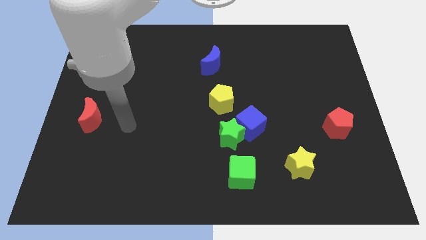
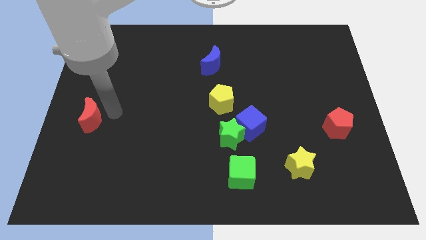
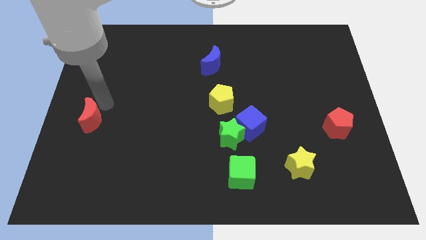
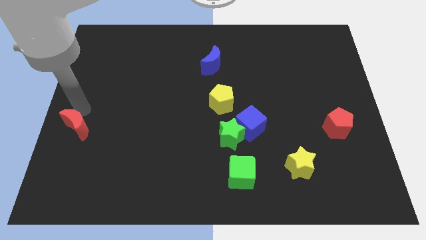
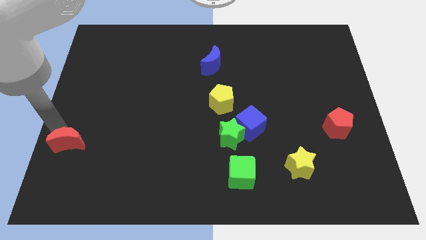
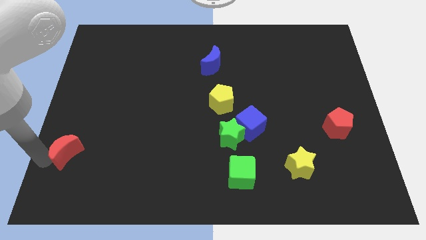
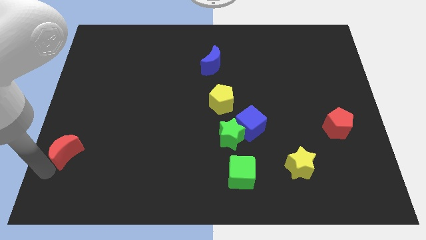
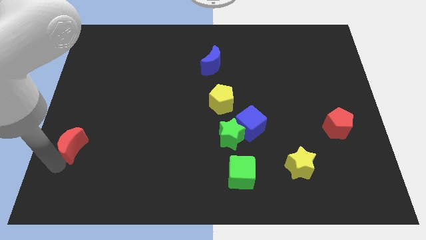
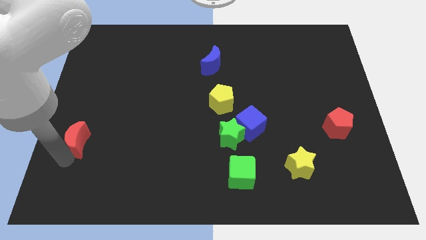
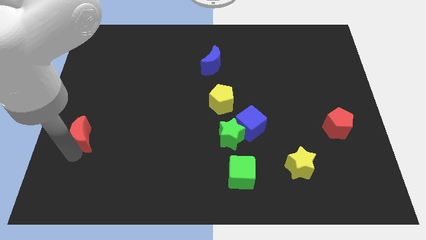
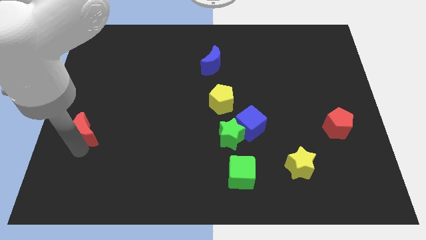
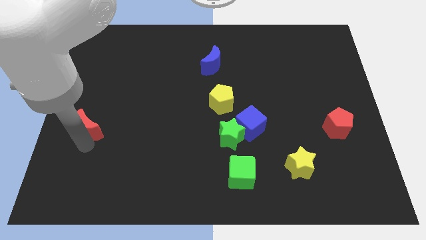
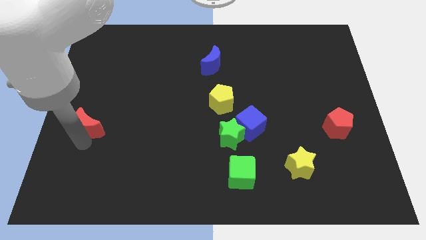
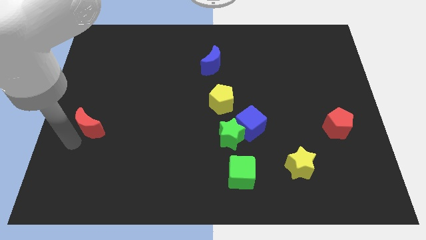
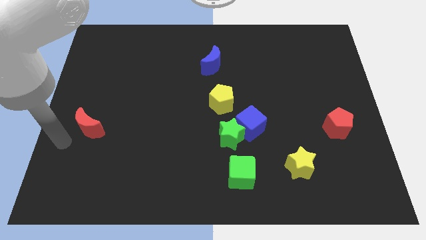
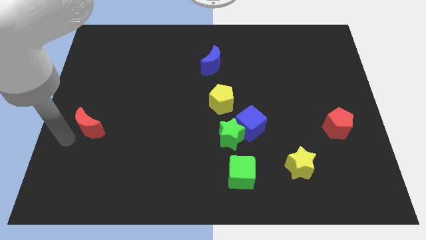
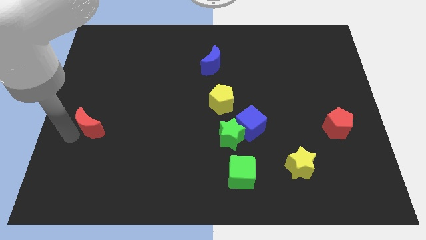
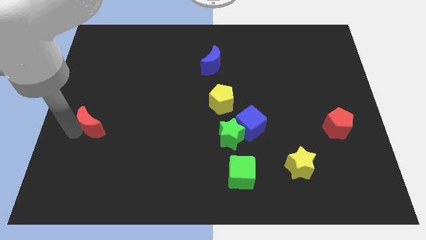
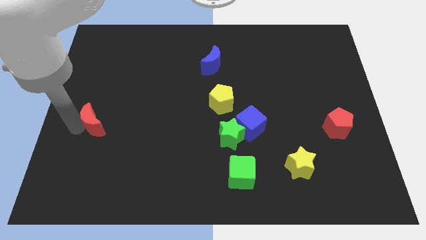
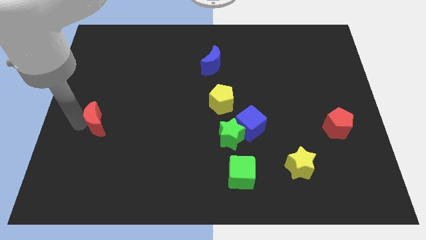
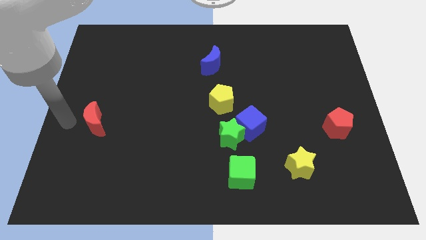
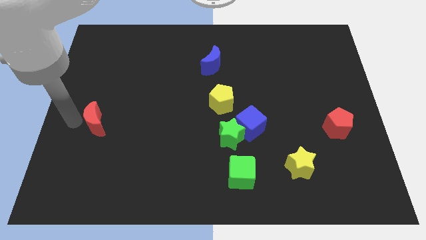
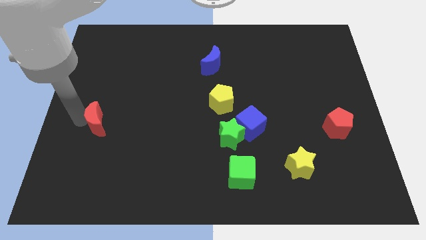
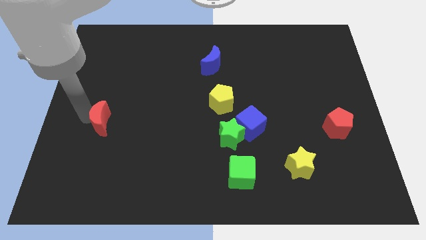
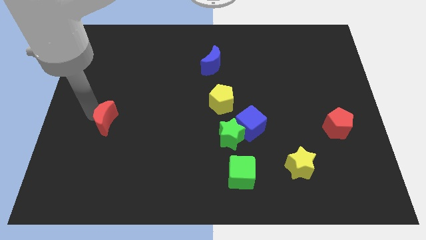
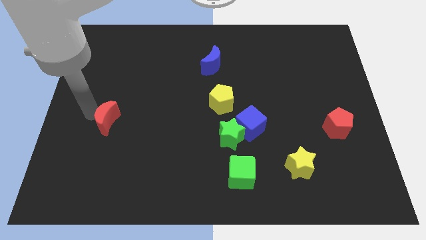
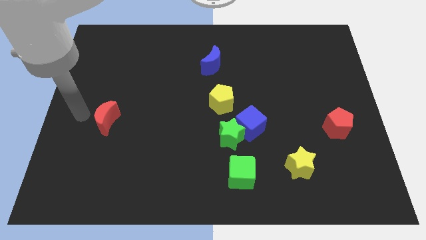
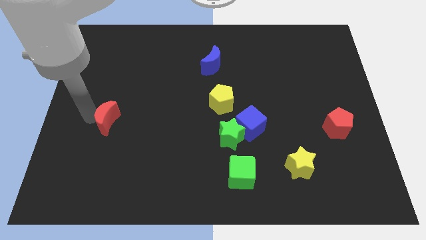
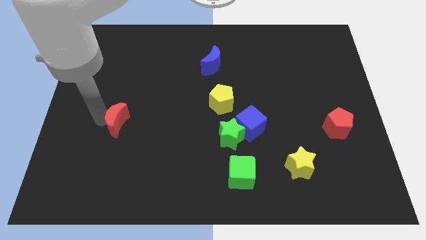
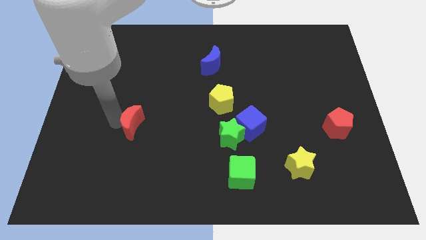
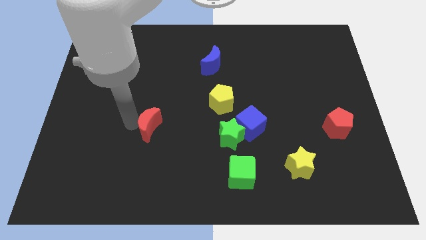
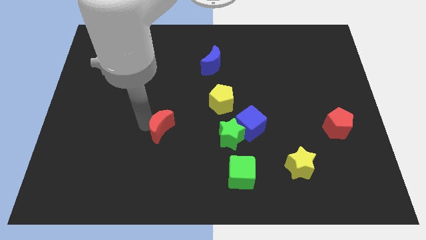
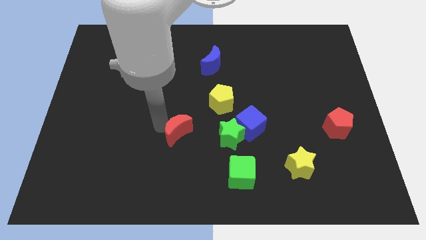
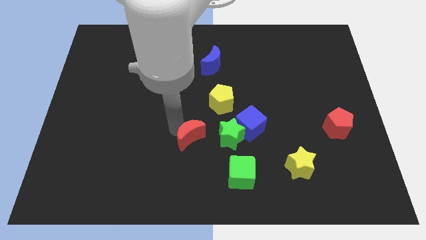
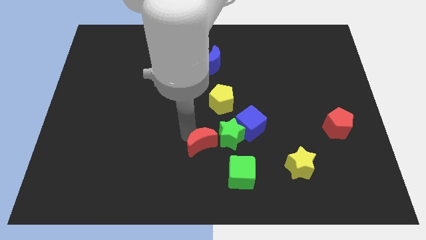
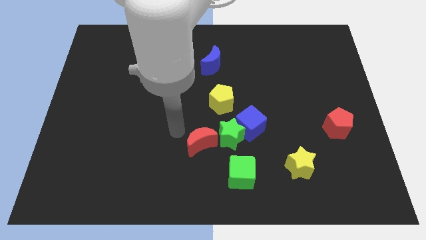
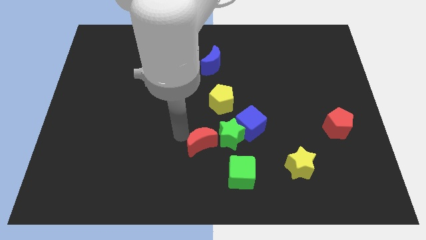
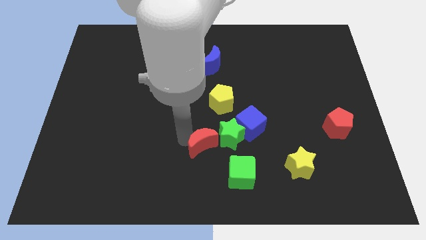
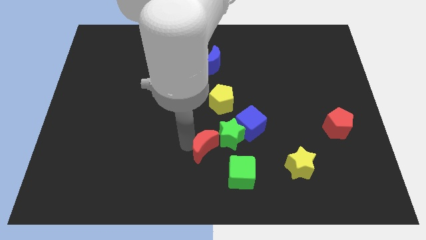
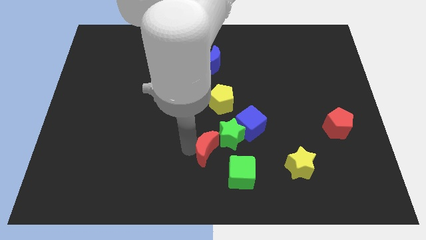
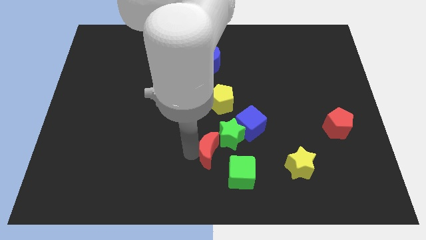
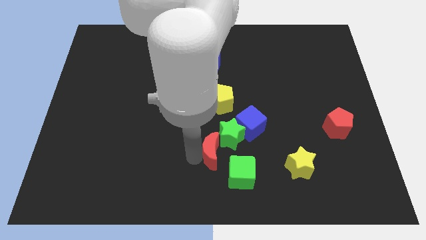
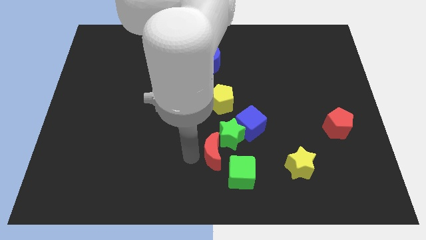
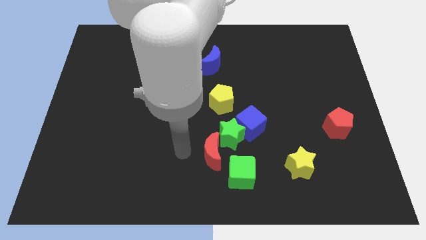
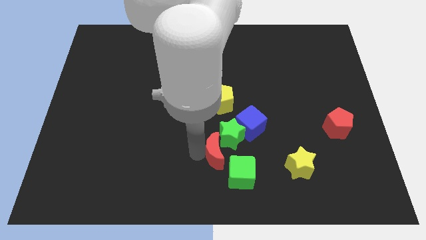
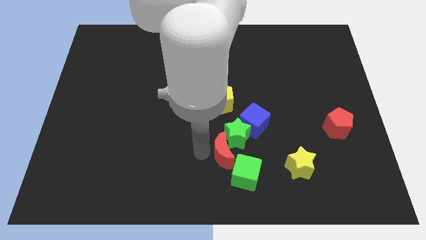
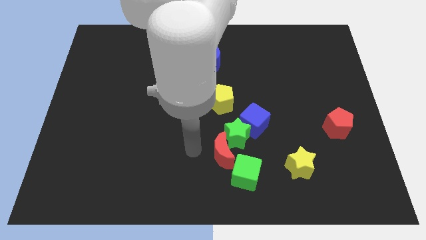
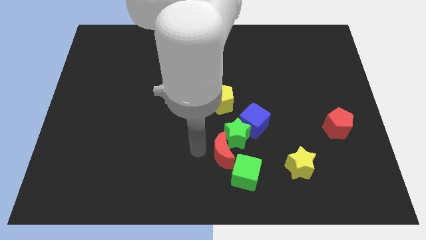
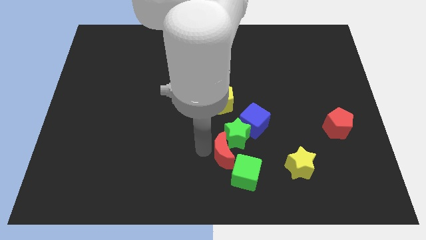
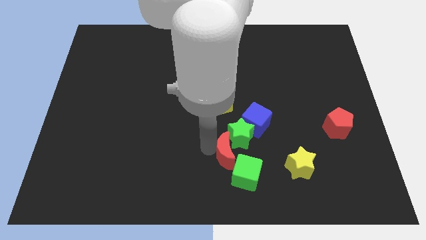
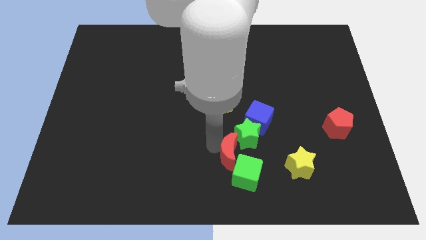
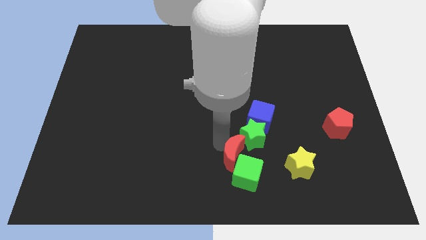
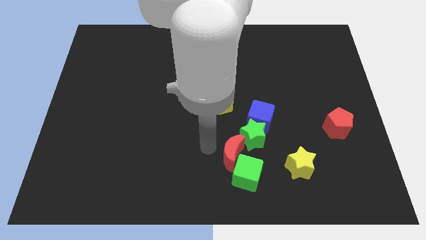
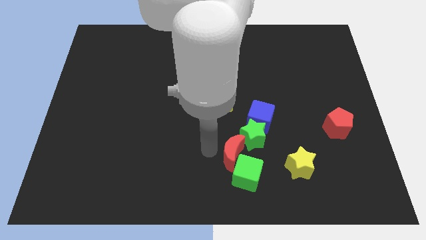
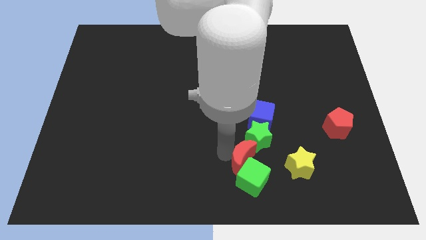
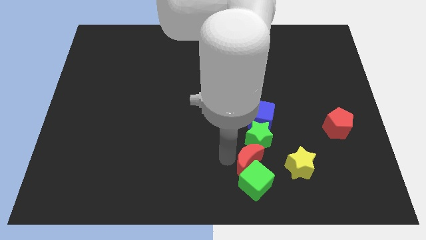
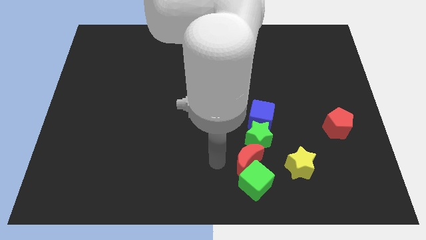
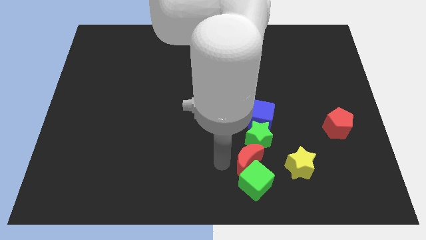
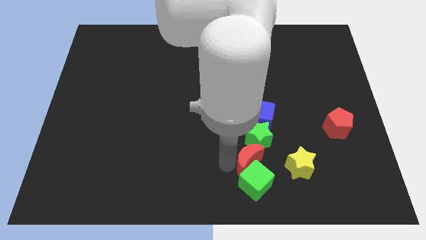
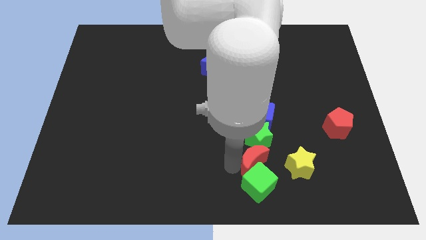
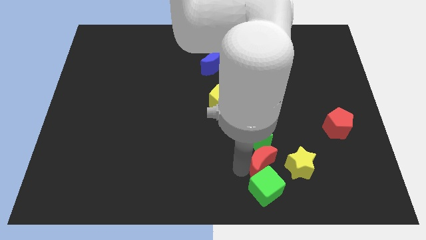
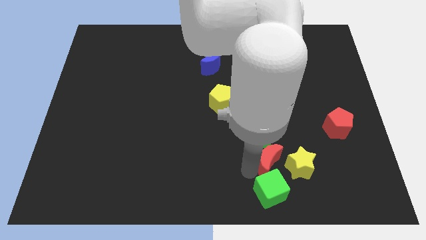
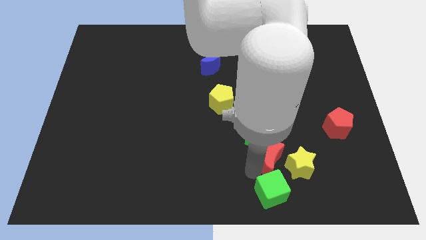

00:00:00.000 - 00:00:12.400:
put the red moon to the yellow star
